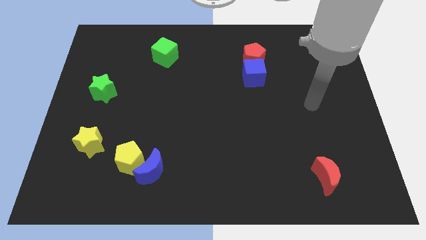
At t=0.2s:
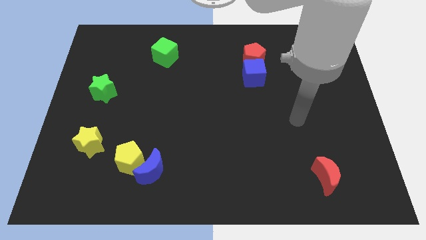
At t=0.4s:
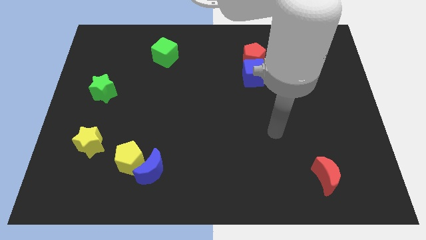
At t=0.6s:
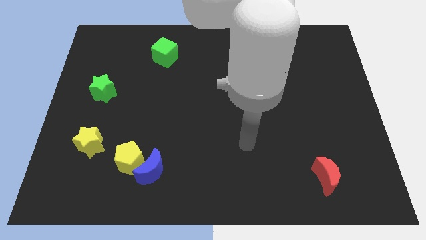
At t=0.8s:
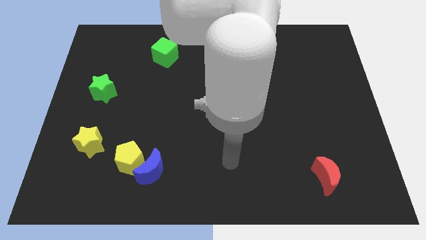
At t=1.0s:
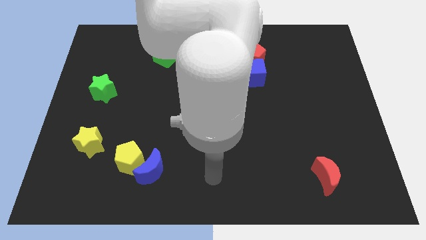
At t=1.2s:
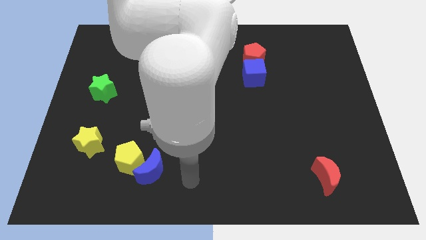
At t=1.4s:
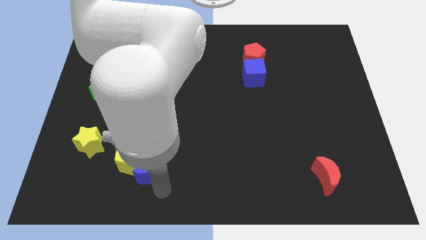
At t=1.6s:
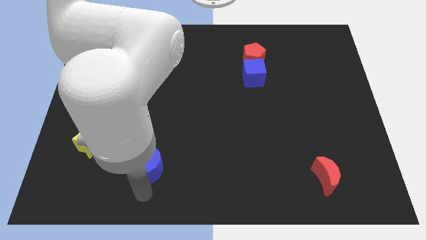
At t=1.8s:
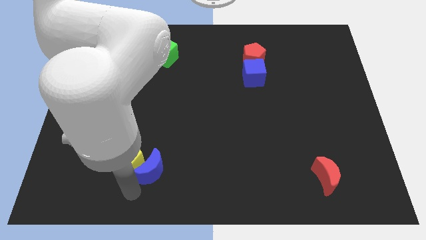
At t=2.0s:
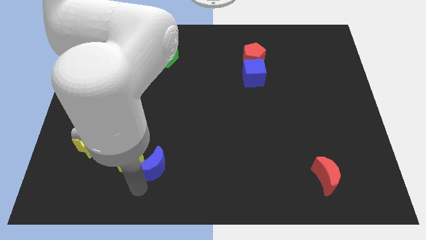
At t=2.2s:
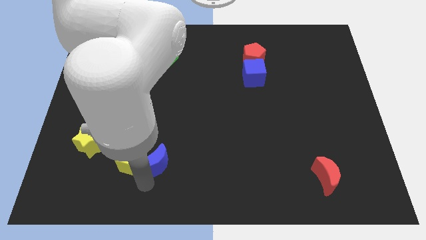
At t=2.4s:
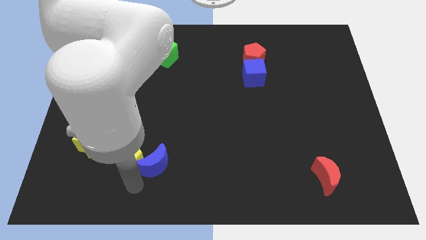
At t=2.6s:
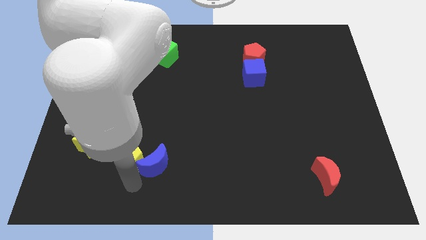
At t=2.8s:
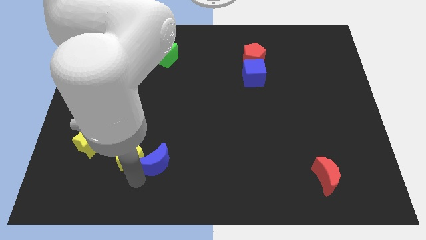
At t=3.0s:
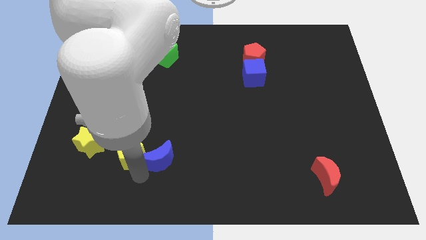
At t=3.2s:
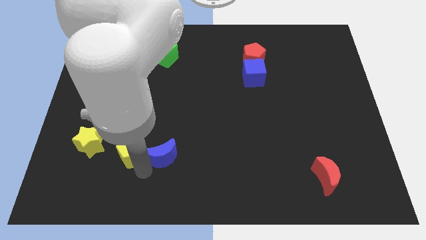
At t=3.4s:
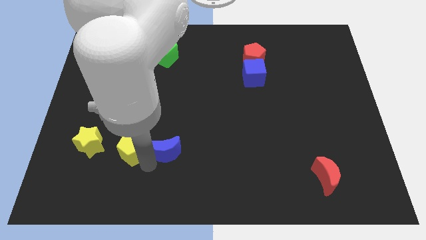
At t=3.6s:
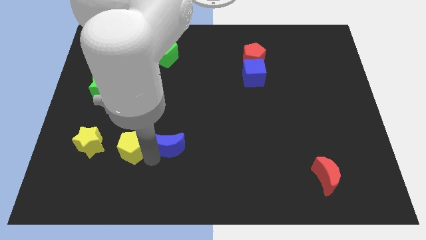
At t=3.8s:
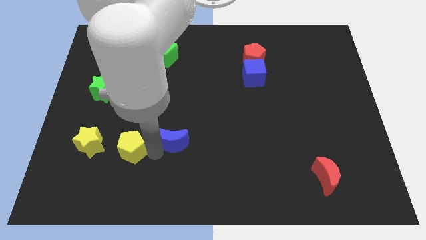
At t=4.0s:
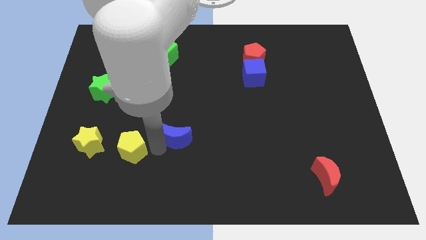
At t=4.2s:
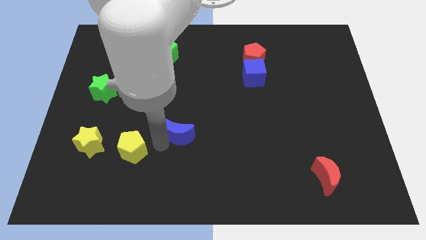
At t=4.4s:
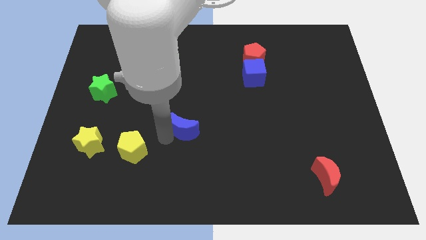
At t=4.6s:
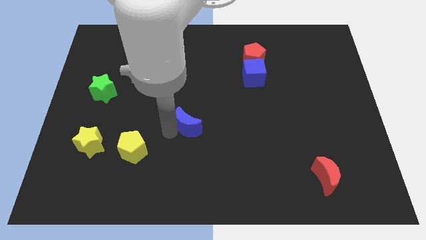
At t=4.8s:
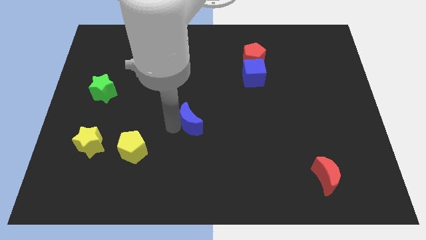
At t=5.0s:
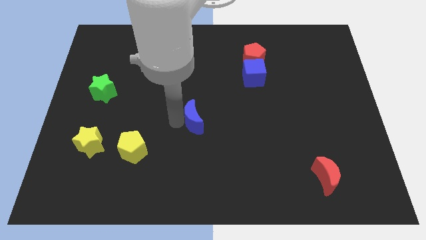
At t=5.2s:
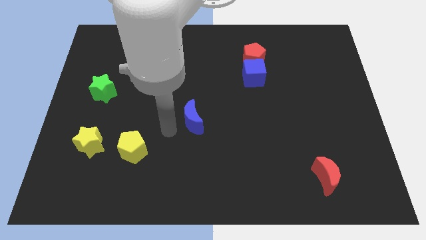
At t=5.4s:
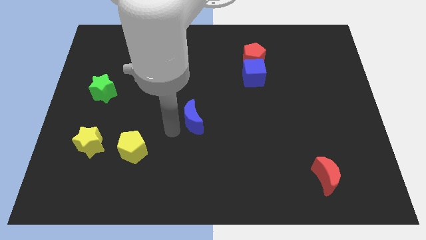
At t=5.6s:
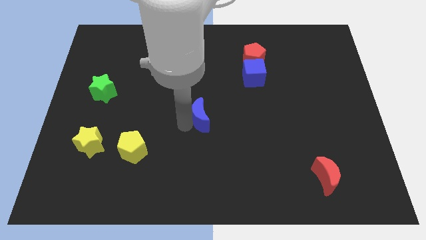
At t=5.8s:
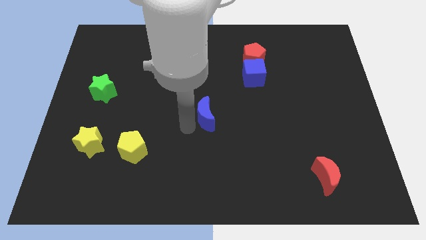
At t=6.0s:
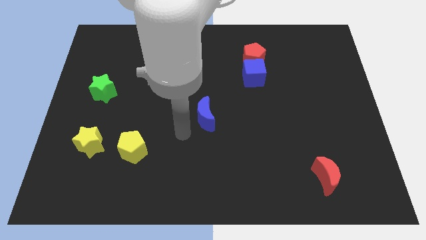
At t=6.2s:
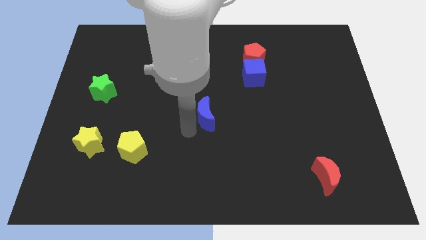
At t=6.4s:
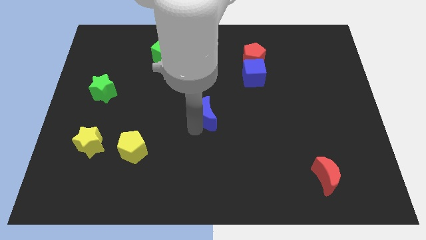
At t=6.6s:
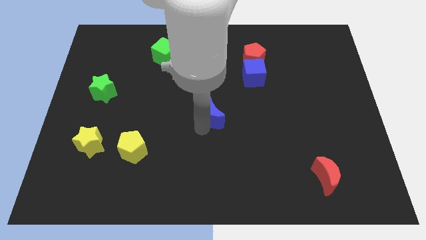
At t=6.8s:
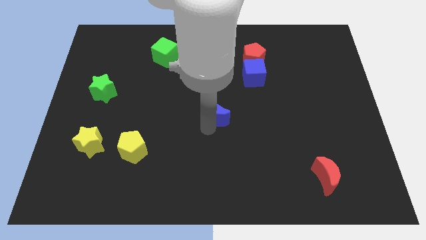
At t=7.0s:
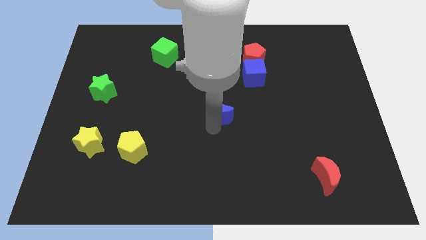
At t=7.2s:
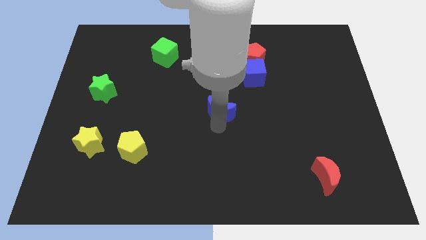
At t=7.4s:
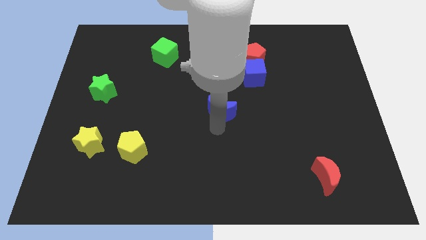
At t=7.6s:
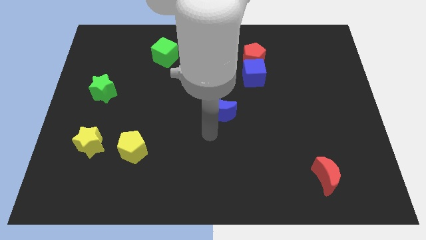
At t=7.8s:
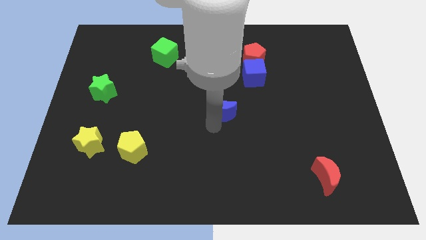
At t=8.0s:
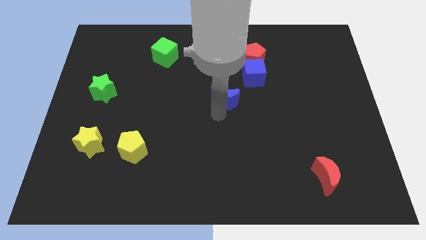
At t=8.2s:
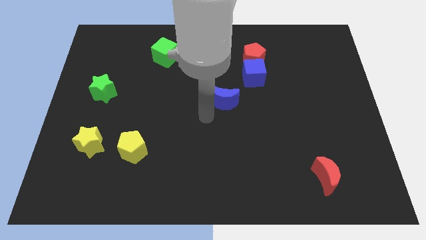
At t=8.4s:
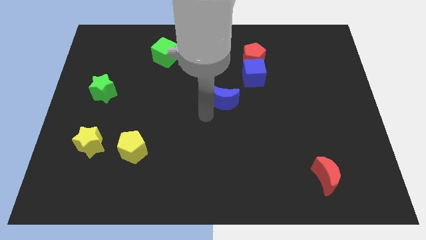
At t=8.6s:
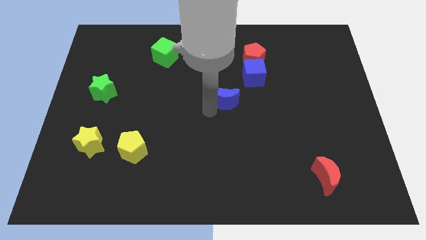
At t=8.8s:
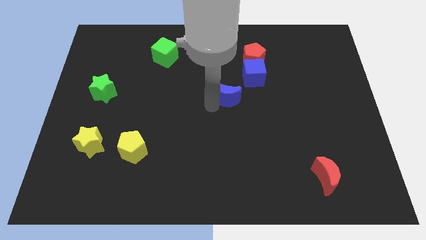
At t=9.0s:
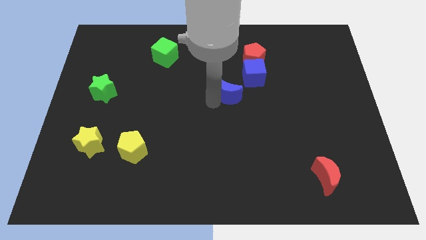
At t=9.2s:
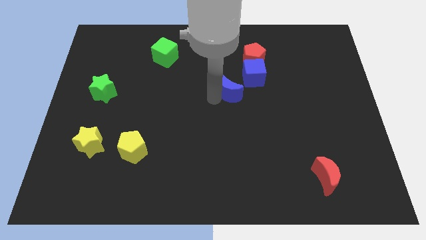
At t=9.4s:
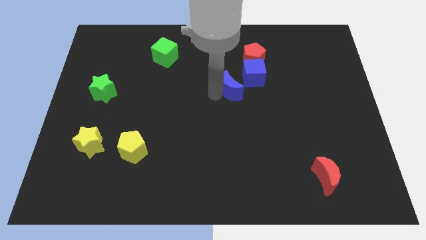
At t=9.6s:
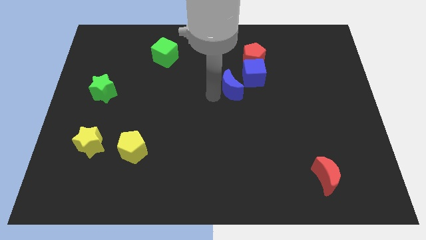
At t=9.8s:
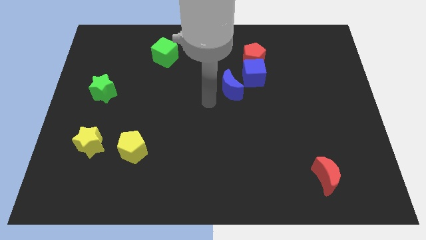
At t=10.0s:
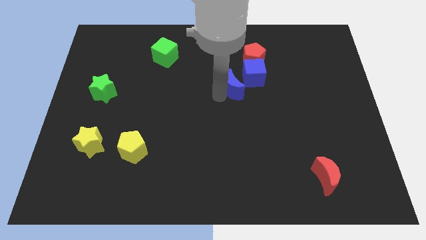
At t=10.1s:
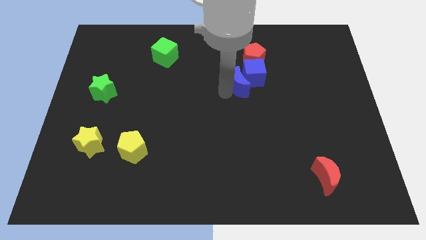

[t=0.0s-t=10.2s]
slide the blue moon towards the blue cube

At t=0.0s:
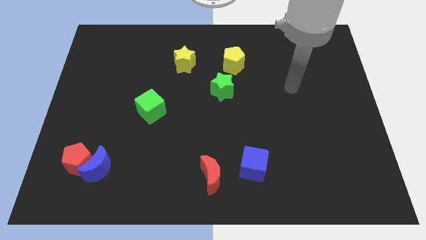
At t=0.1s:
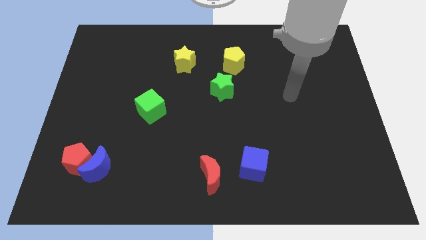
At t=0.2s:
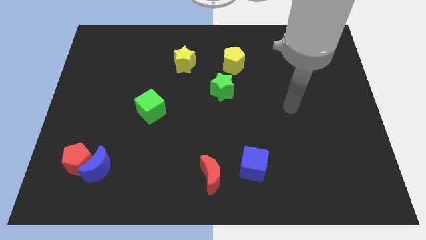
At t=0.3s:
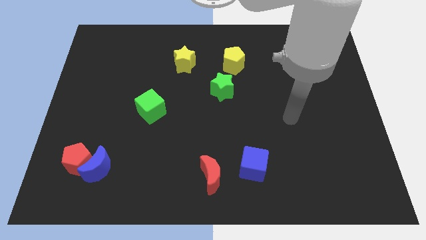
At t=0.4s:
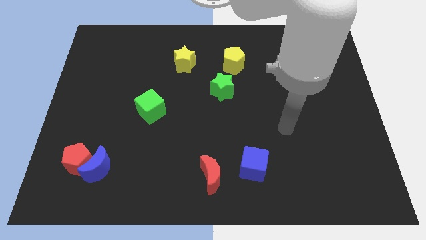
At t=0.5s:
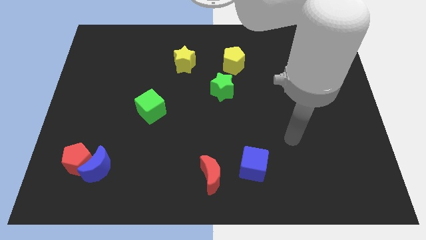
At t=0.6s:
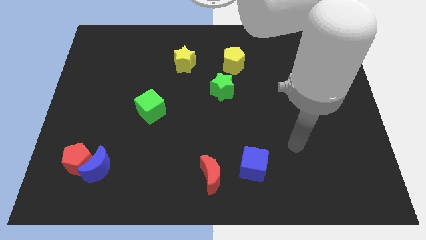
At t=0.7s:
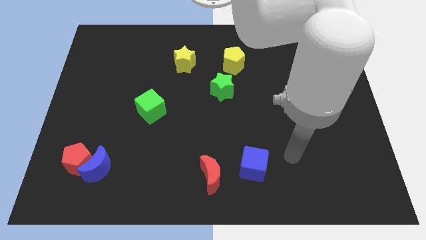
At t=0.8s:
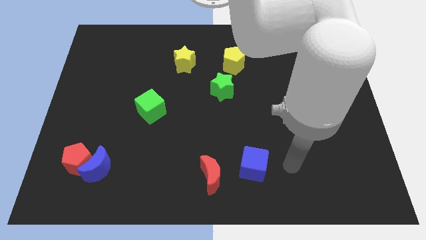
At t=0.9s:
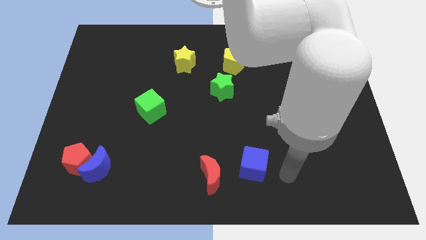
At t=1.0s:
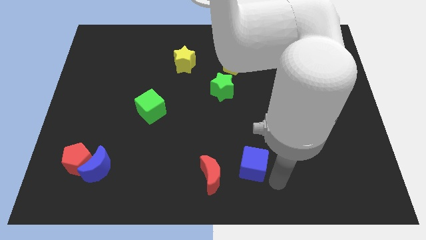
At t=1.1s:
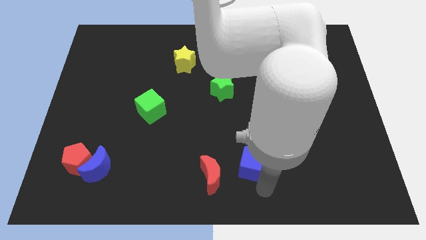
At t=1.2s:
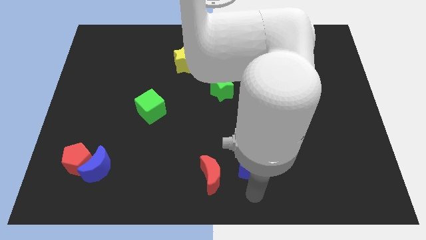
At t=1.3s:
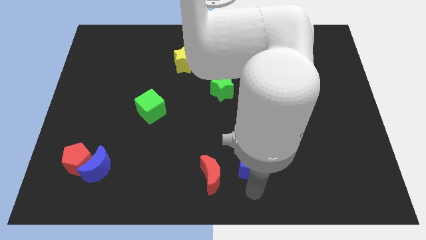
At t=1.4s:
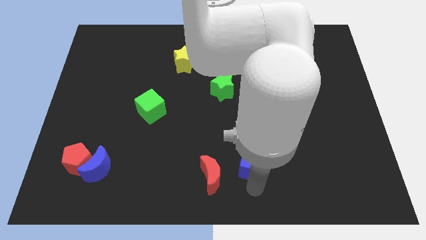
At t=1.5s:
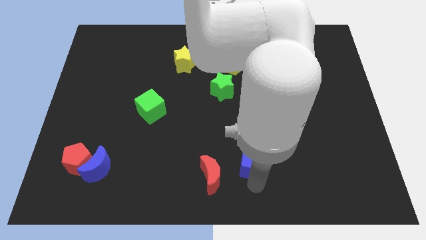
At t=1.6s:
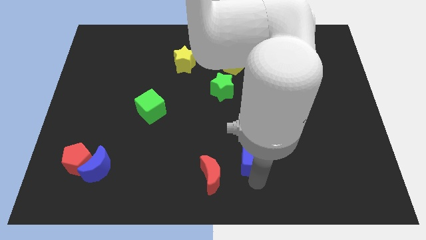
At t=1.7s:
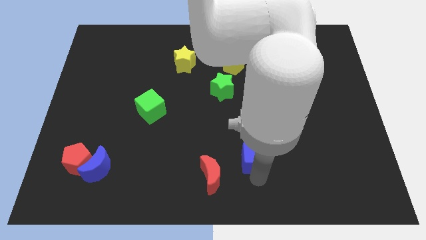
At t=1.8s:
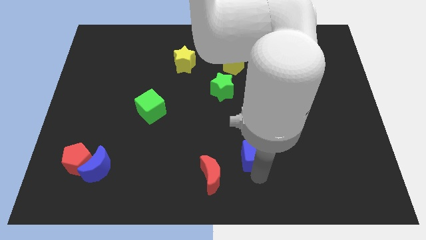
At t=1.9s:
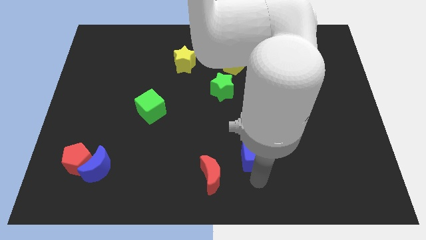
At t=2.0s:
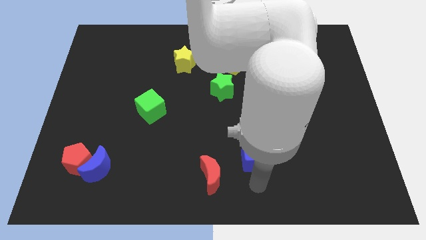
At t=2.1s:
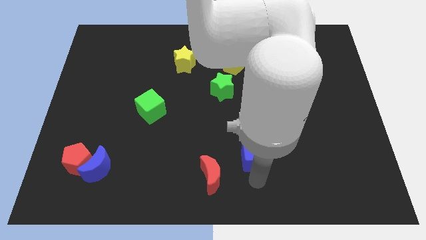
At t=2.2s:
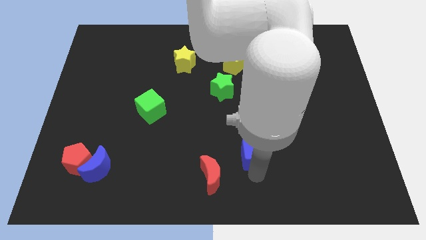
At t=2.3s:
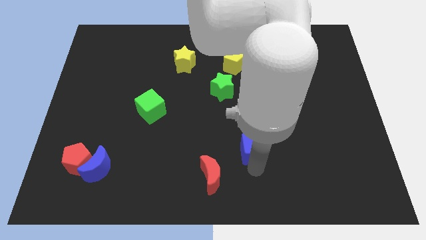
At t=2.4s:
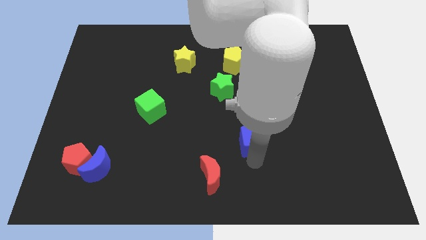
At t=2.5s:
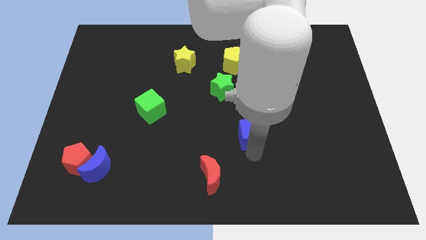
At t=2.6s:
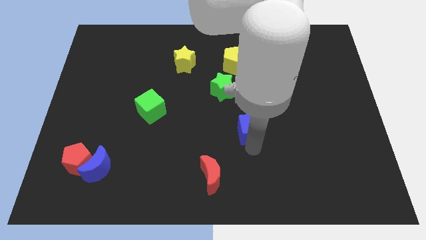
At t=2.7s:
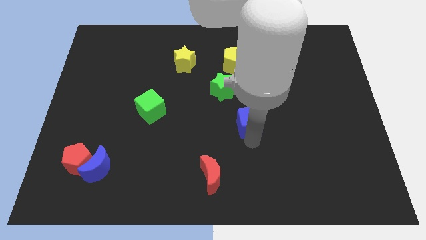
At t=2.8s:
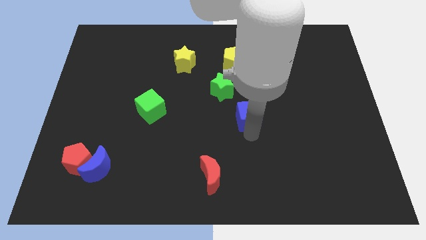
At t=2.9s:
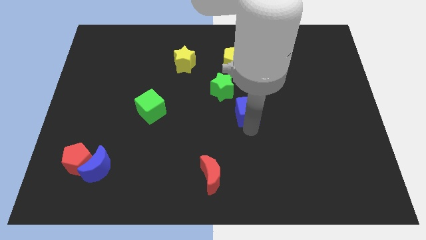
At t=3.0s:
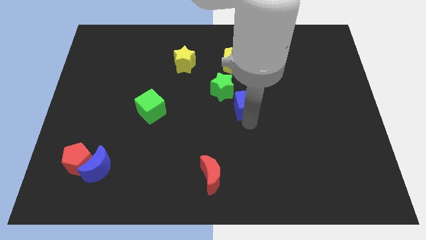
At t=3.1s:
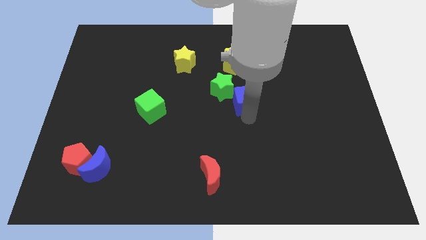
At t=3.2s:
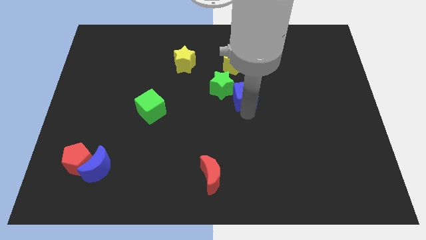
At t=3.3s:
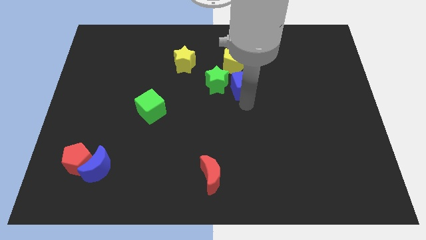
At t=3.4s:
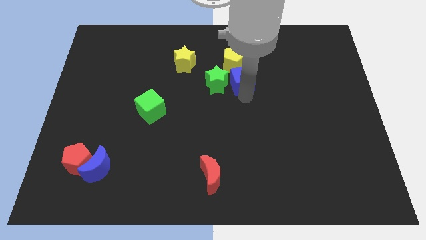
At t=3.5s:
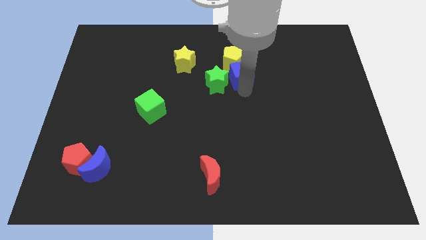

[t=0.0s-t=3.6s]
push the blue cube close to the yellow pentagon
